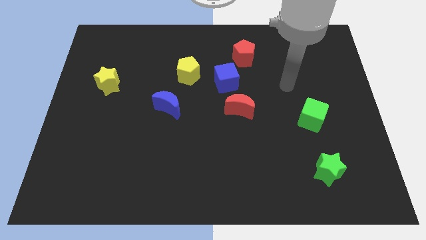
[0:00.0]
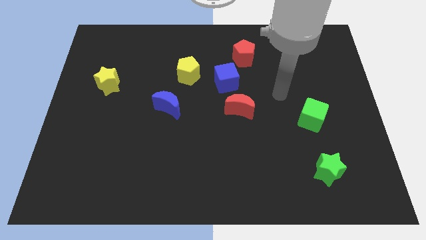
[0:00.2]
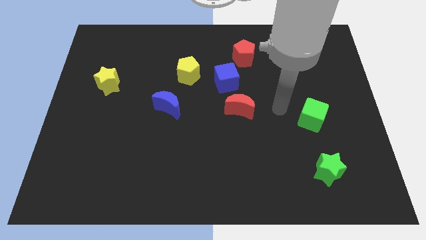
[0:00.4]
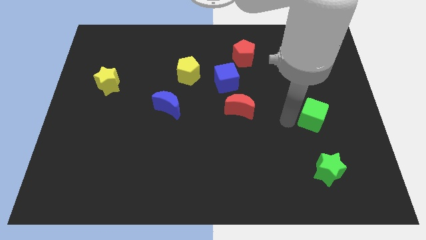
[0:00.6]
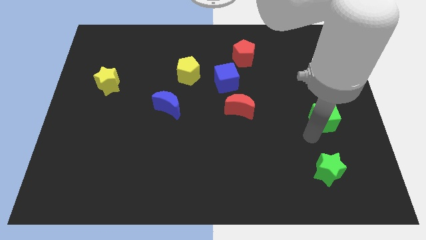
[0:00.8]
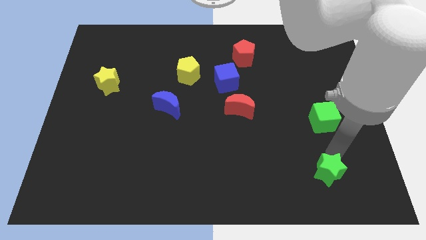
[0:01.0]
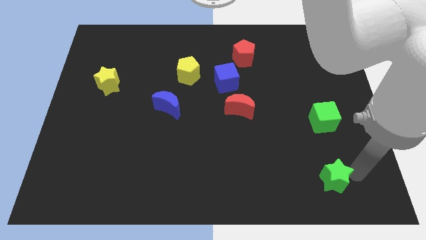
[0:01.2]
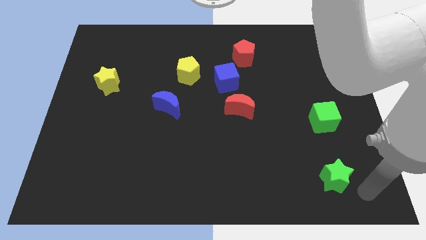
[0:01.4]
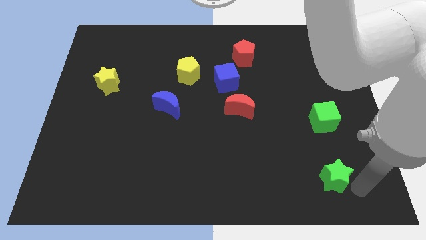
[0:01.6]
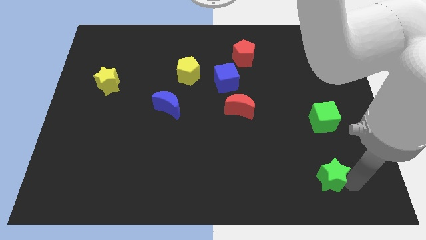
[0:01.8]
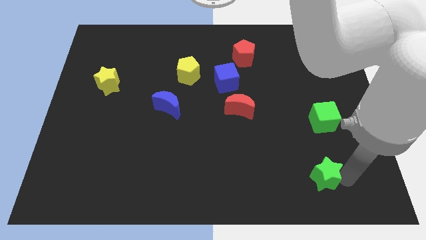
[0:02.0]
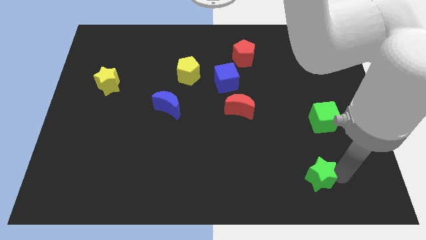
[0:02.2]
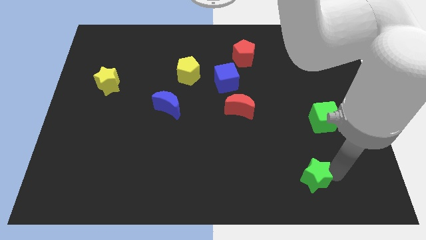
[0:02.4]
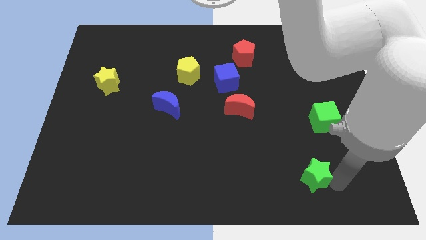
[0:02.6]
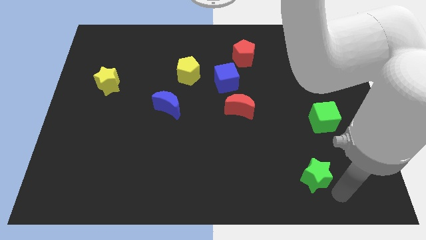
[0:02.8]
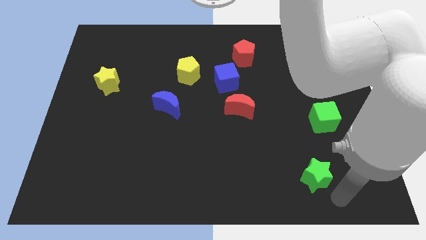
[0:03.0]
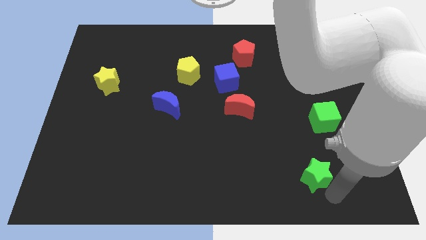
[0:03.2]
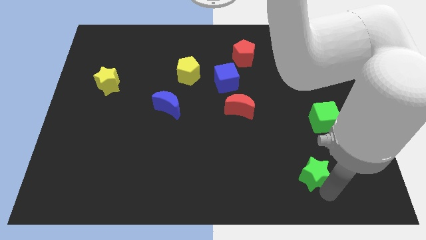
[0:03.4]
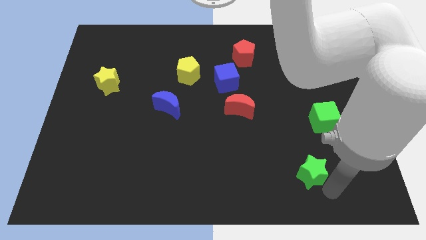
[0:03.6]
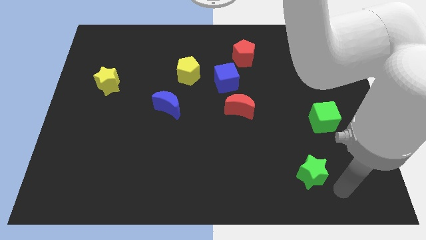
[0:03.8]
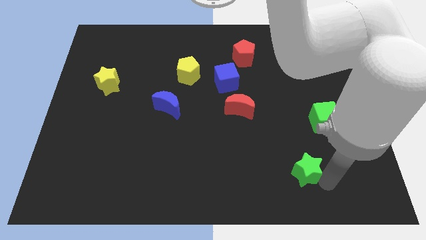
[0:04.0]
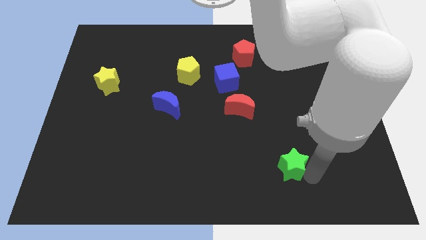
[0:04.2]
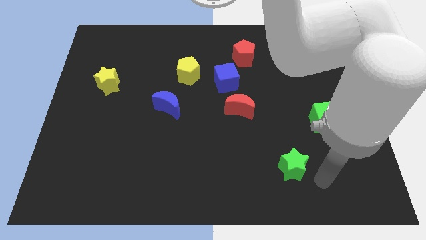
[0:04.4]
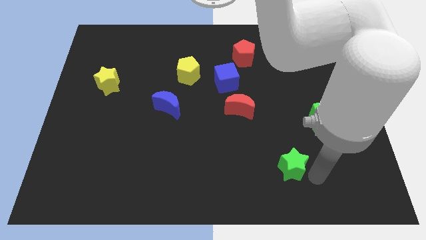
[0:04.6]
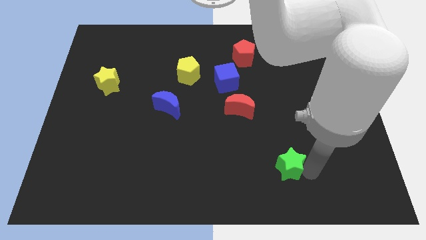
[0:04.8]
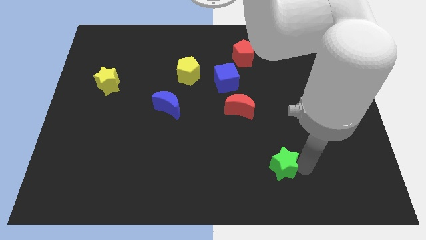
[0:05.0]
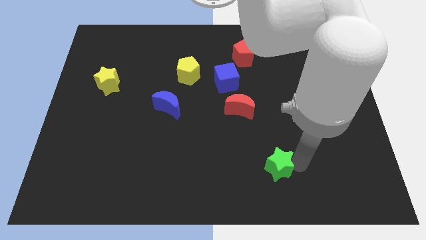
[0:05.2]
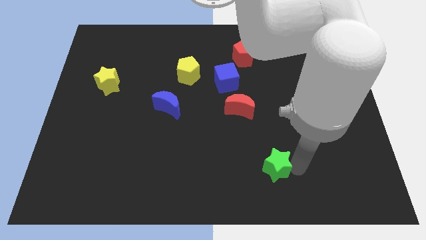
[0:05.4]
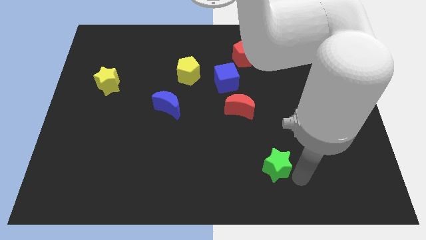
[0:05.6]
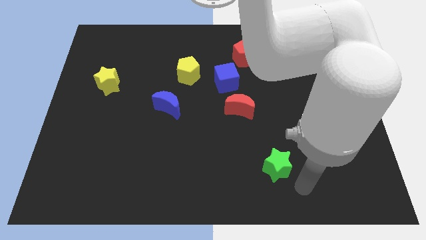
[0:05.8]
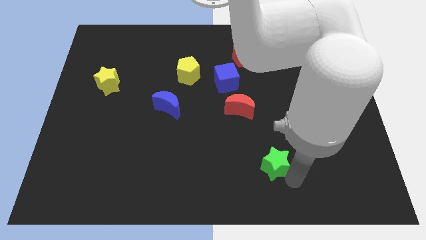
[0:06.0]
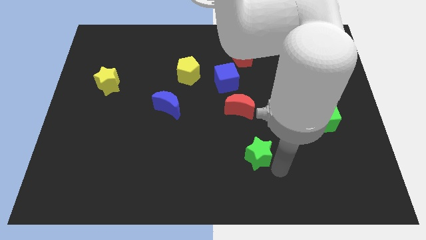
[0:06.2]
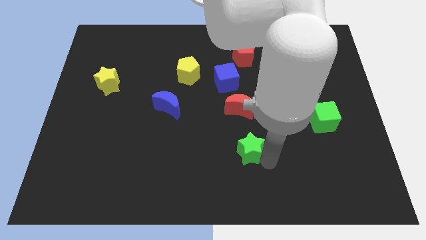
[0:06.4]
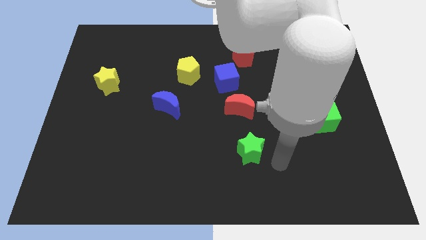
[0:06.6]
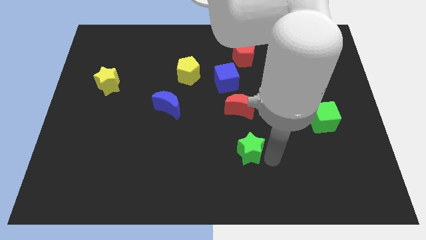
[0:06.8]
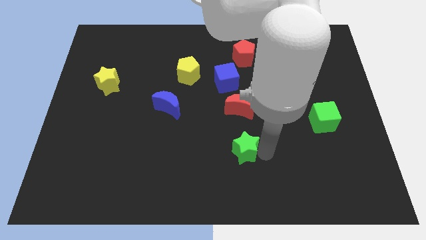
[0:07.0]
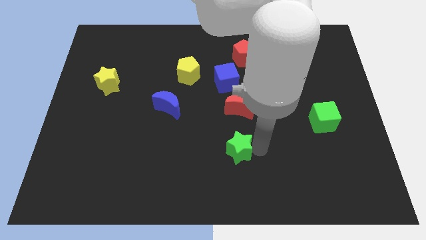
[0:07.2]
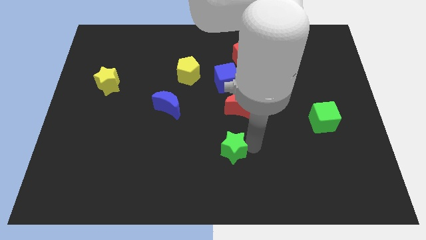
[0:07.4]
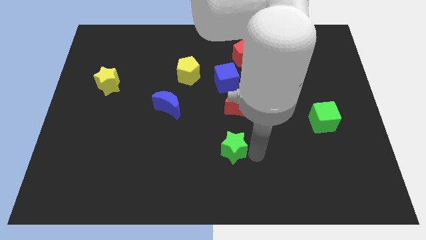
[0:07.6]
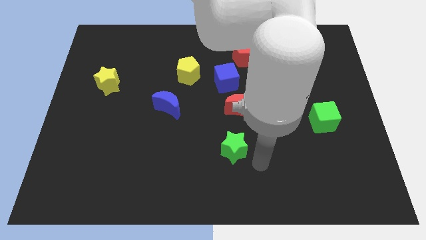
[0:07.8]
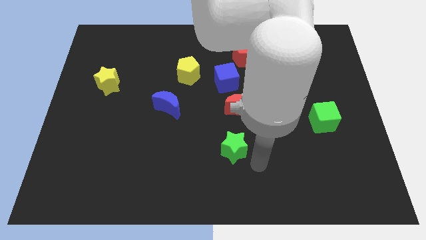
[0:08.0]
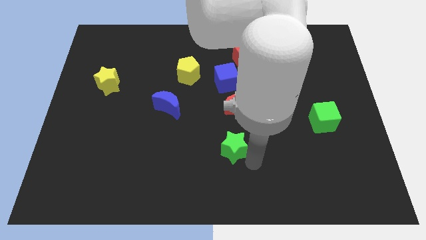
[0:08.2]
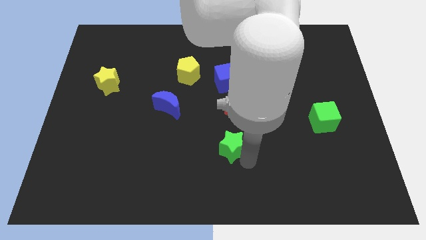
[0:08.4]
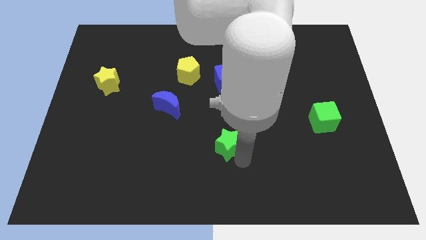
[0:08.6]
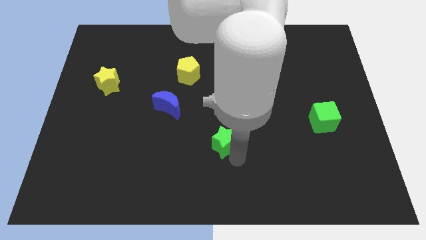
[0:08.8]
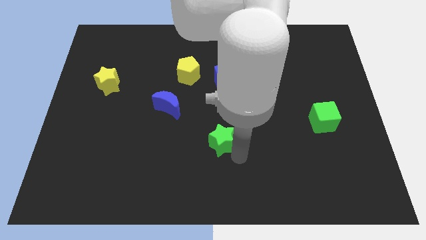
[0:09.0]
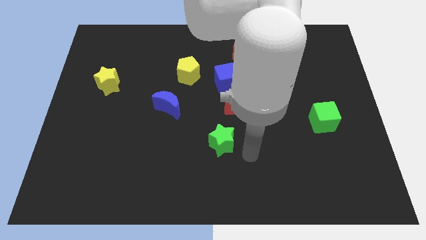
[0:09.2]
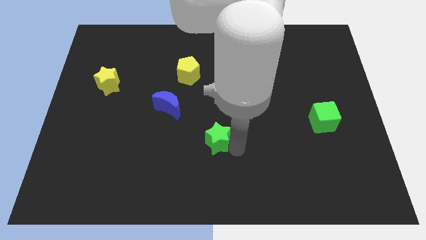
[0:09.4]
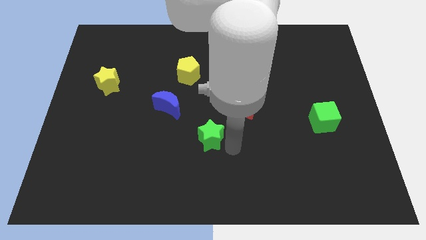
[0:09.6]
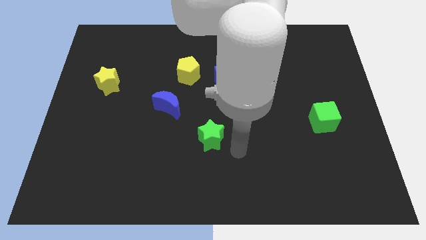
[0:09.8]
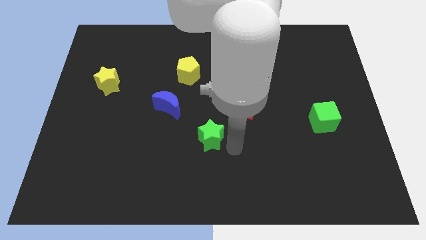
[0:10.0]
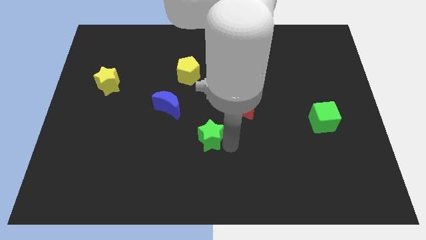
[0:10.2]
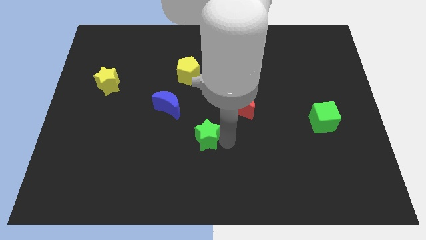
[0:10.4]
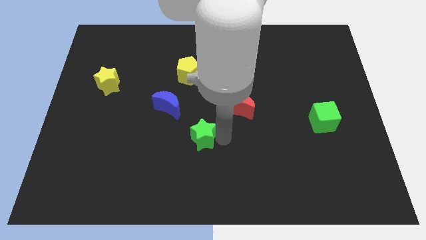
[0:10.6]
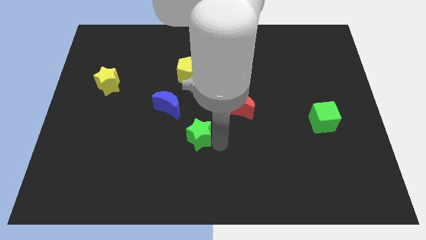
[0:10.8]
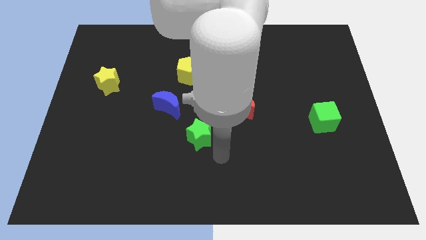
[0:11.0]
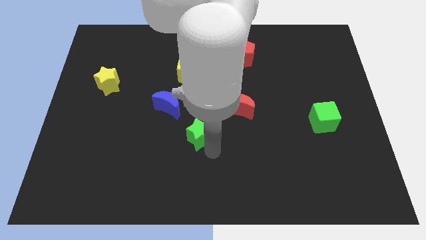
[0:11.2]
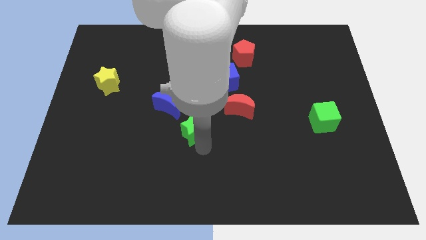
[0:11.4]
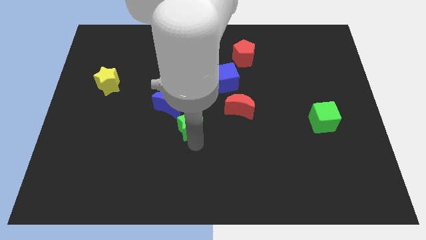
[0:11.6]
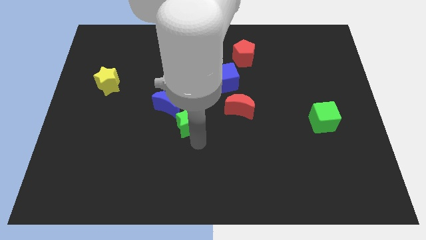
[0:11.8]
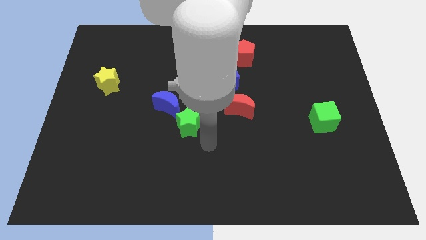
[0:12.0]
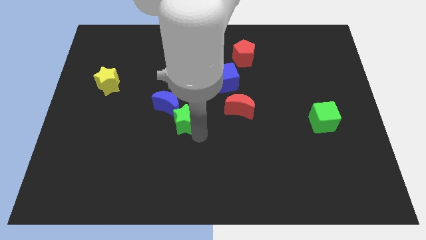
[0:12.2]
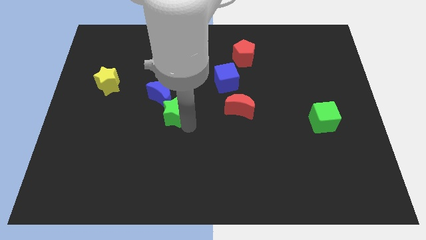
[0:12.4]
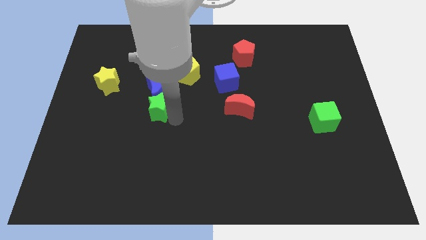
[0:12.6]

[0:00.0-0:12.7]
move the green star towards the blue moon

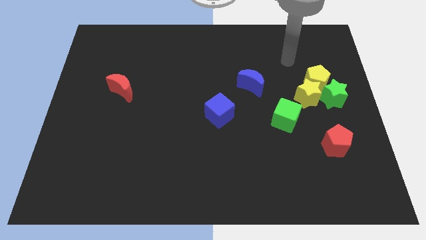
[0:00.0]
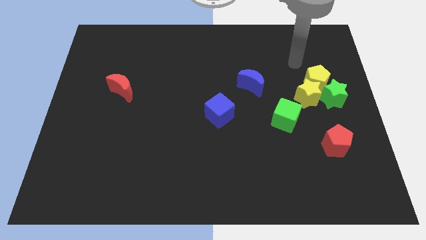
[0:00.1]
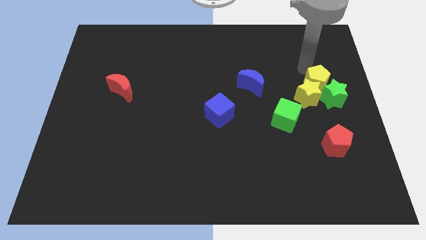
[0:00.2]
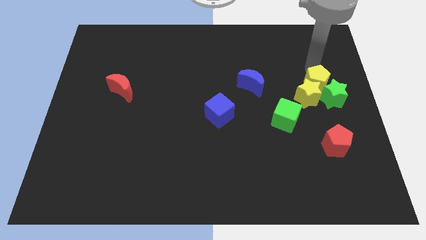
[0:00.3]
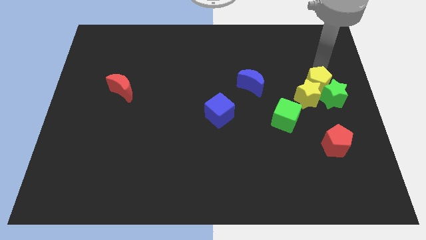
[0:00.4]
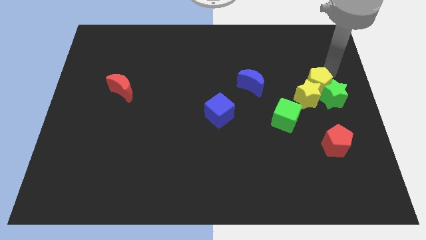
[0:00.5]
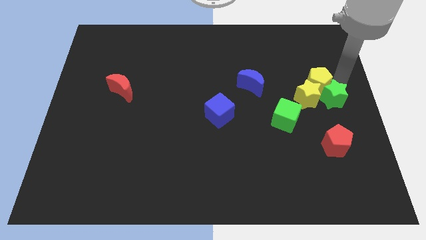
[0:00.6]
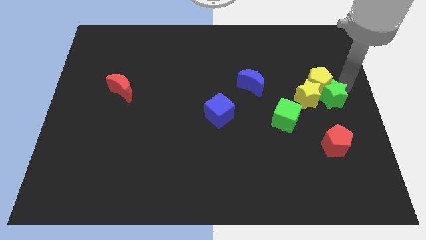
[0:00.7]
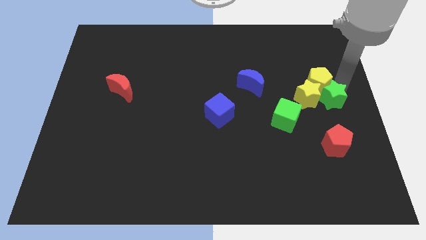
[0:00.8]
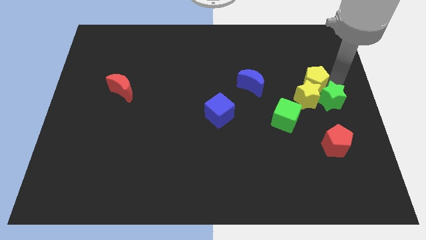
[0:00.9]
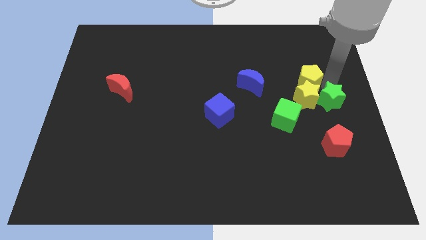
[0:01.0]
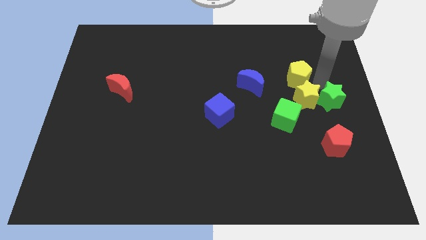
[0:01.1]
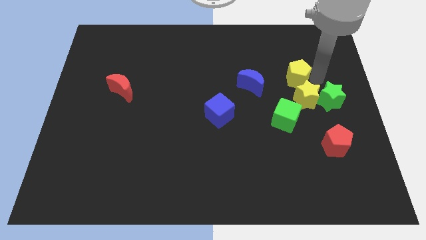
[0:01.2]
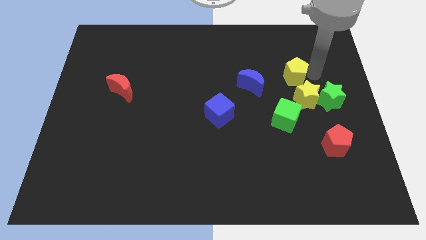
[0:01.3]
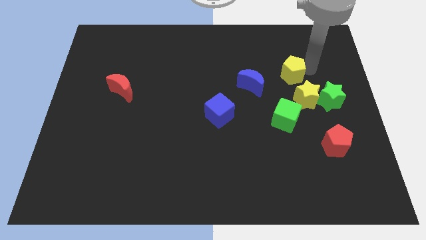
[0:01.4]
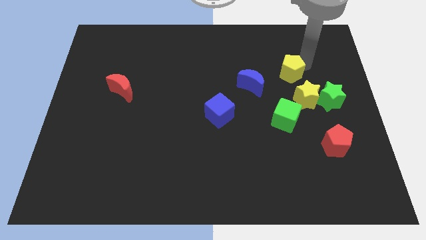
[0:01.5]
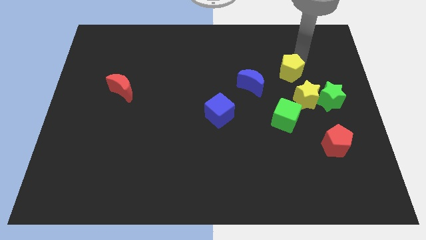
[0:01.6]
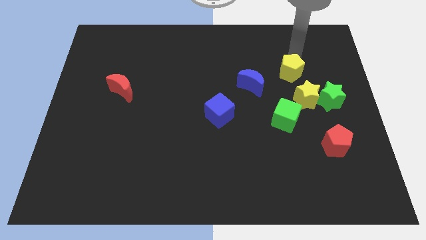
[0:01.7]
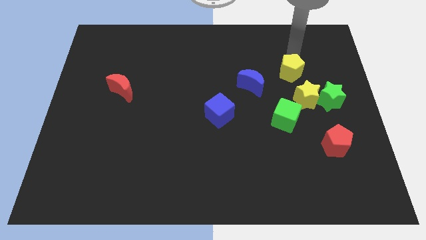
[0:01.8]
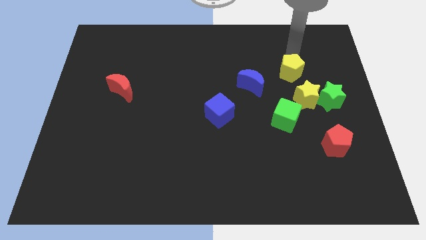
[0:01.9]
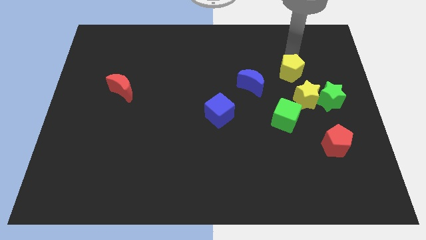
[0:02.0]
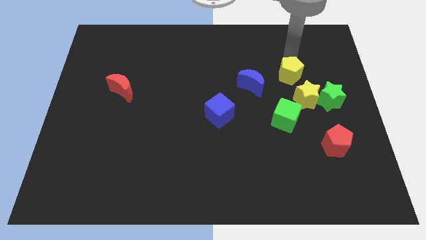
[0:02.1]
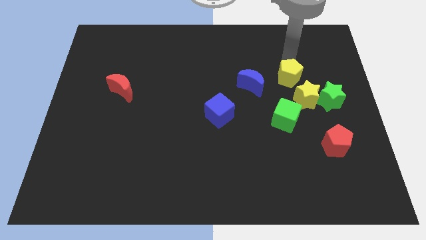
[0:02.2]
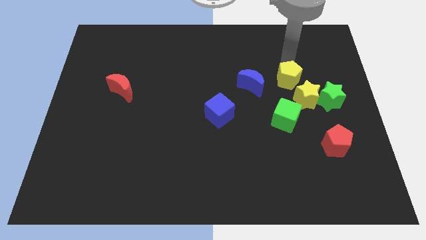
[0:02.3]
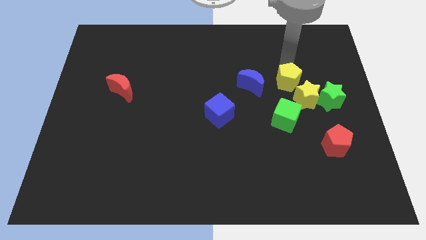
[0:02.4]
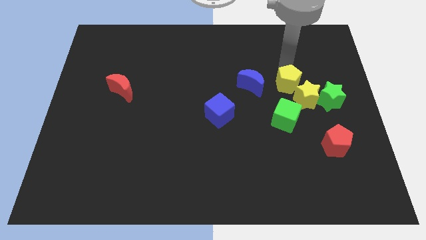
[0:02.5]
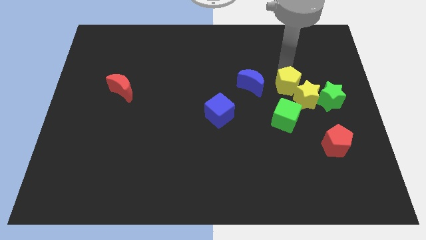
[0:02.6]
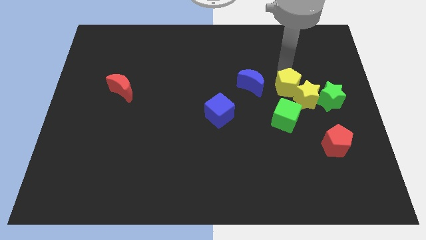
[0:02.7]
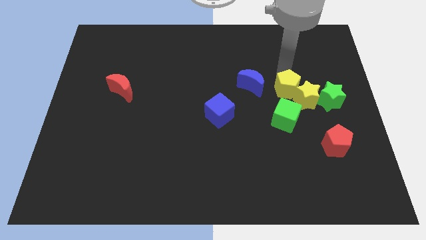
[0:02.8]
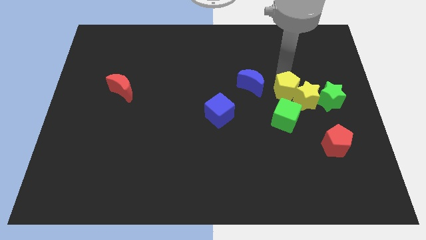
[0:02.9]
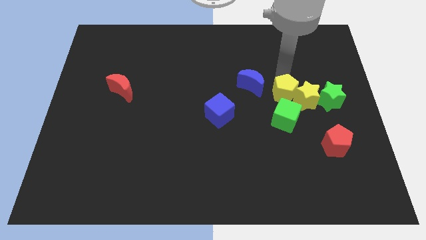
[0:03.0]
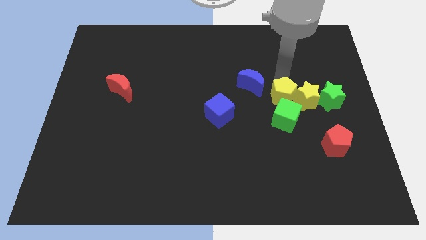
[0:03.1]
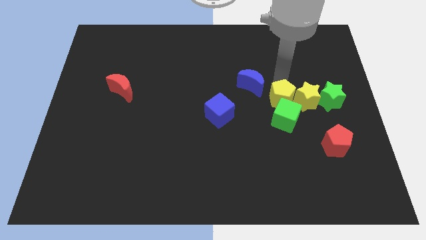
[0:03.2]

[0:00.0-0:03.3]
move the yellow pentagon next to the green cube
